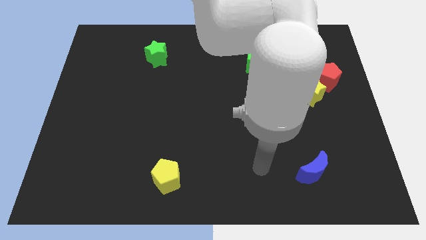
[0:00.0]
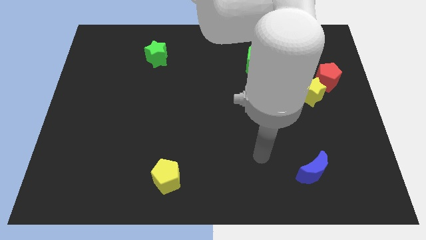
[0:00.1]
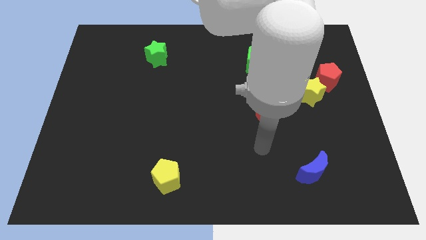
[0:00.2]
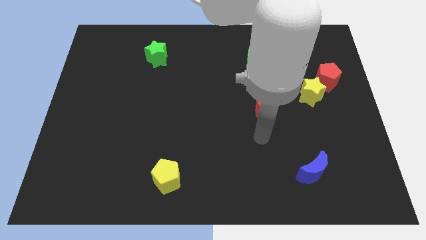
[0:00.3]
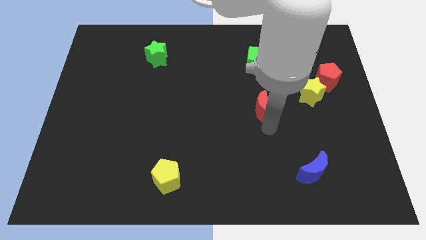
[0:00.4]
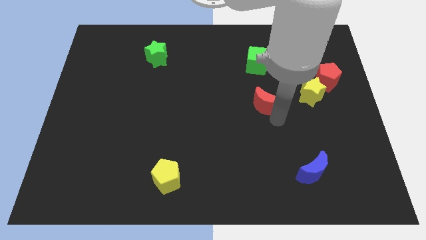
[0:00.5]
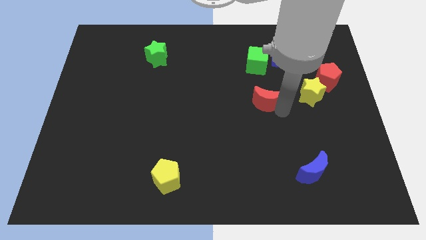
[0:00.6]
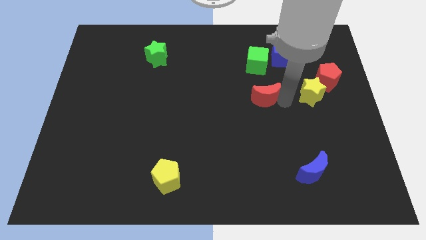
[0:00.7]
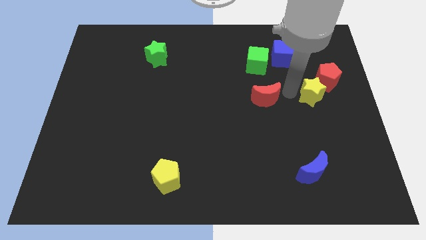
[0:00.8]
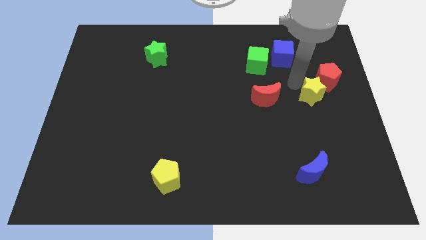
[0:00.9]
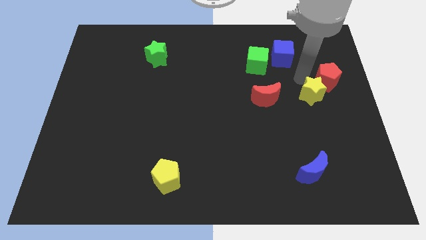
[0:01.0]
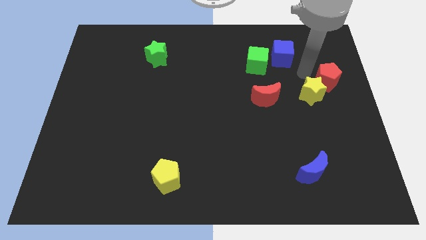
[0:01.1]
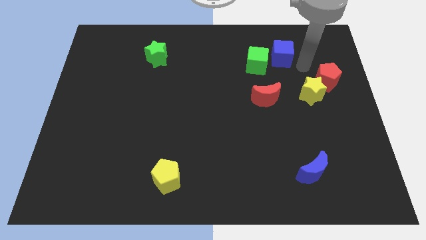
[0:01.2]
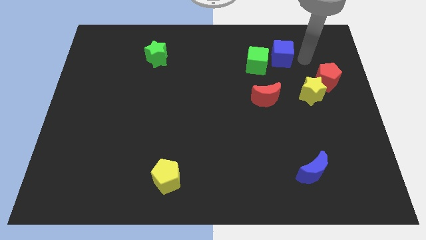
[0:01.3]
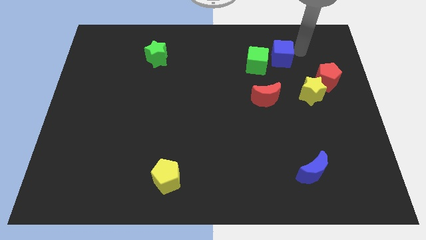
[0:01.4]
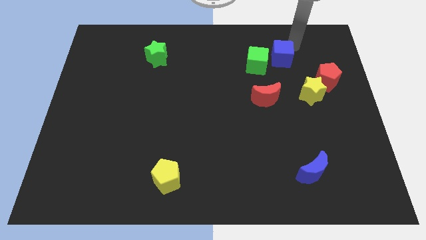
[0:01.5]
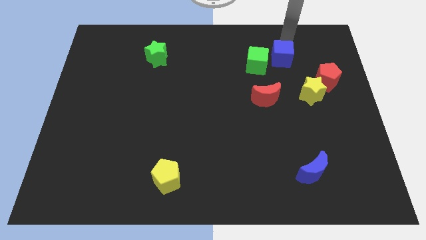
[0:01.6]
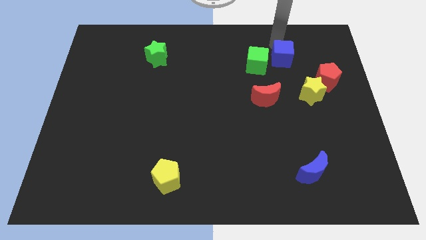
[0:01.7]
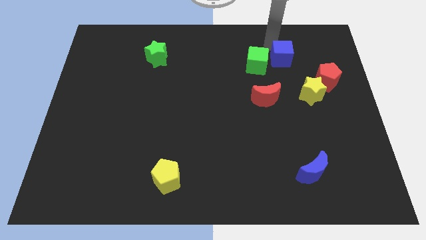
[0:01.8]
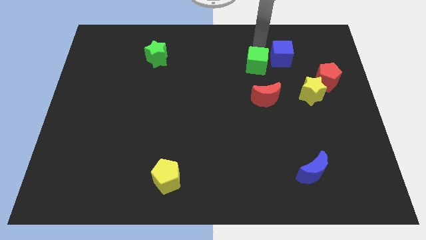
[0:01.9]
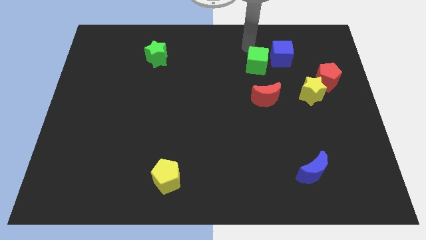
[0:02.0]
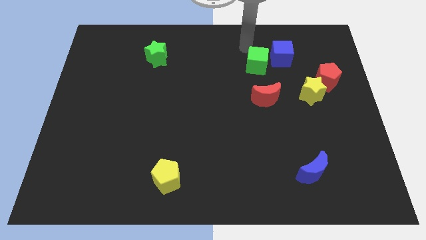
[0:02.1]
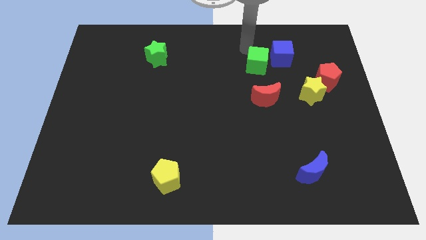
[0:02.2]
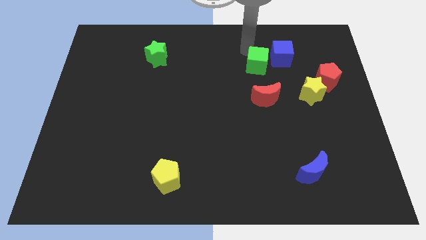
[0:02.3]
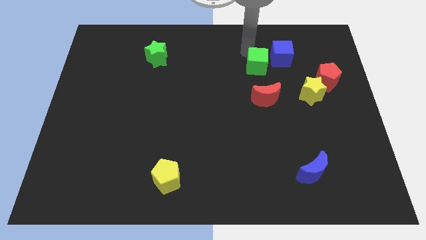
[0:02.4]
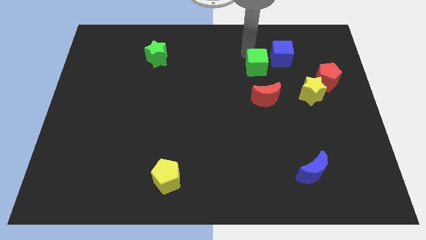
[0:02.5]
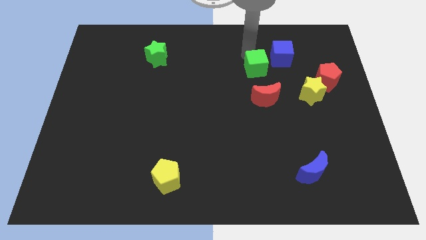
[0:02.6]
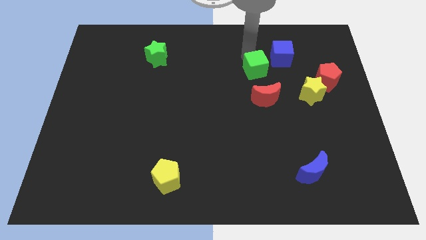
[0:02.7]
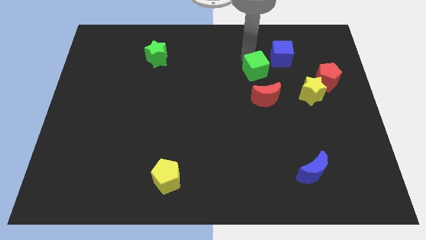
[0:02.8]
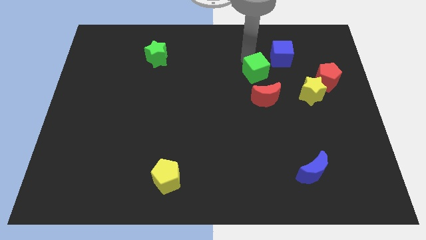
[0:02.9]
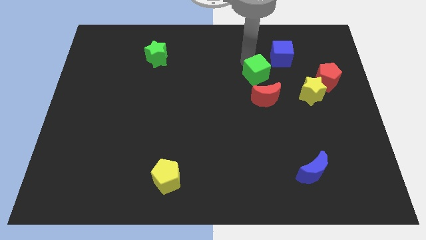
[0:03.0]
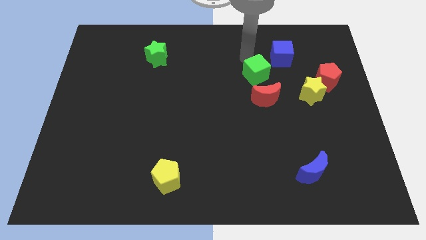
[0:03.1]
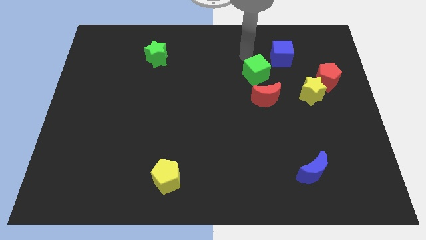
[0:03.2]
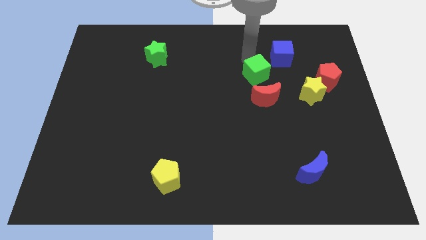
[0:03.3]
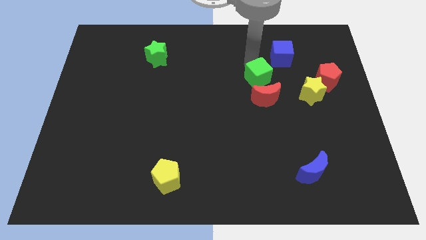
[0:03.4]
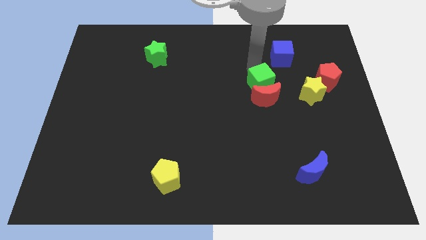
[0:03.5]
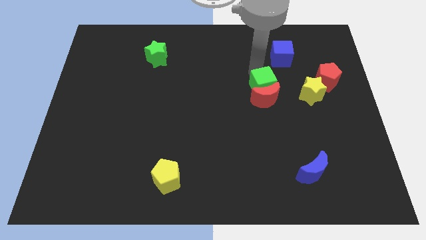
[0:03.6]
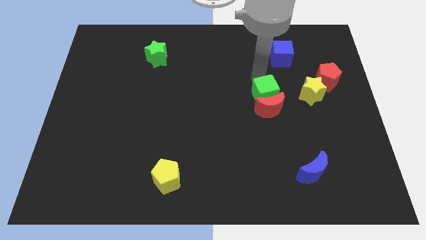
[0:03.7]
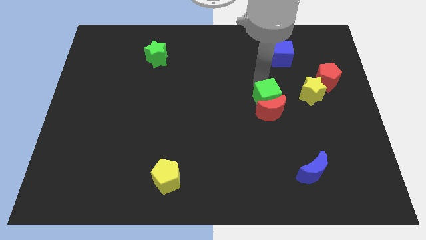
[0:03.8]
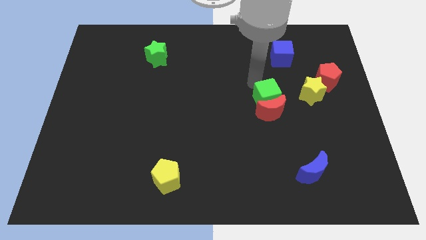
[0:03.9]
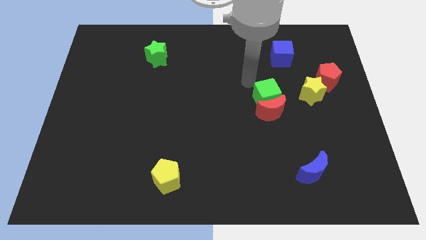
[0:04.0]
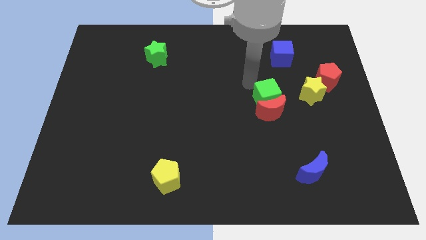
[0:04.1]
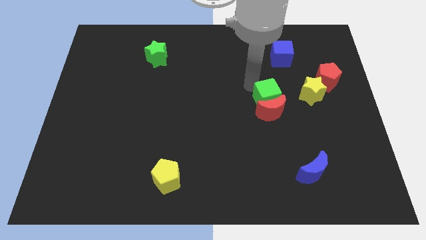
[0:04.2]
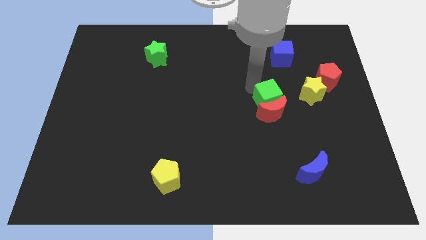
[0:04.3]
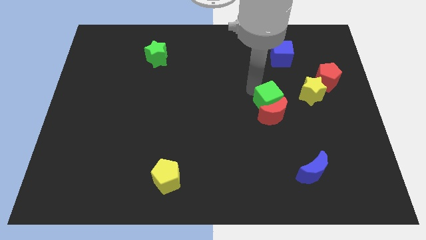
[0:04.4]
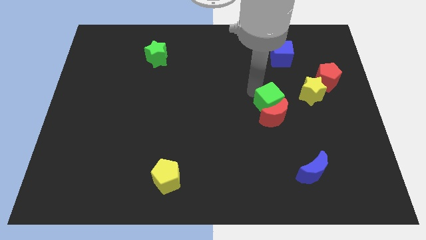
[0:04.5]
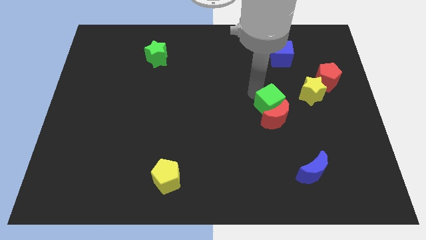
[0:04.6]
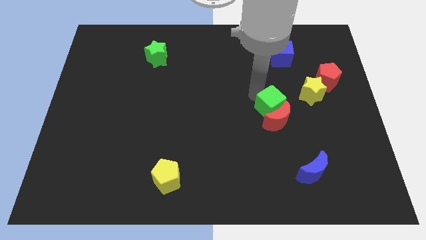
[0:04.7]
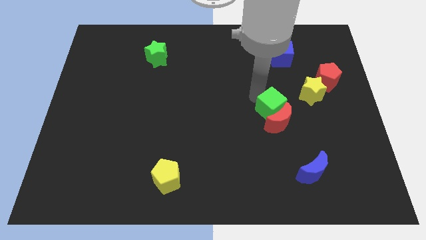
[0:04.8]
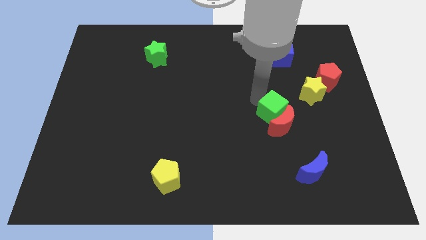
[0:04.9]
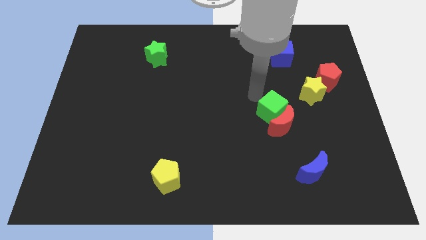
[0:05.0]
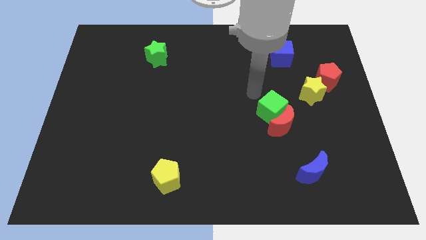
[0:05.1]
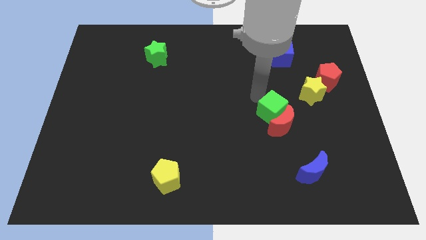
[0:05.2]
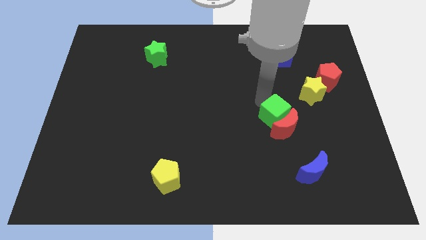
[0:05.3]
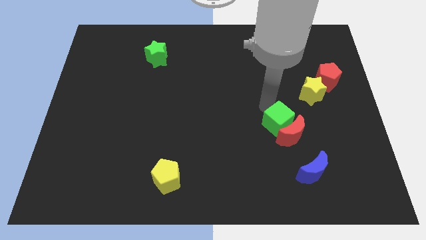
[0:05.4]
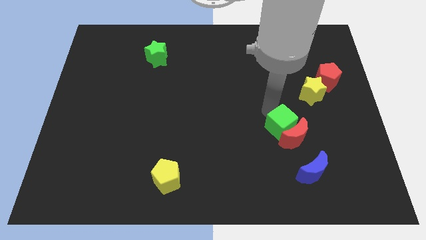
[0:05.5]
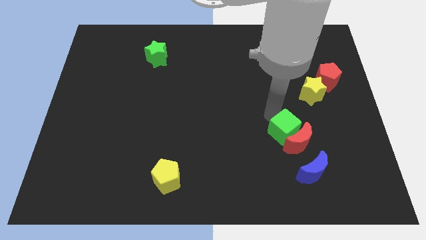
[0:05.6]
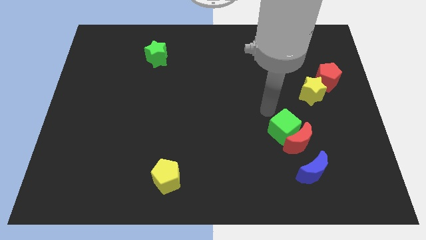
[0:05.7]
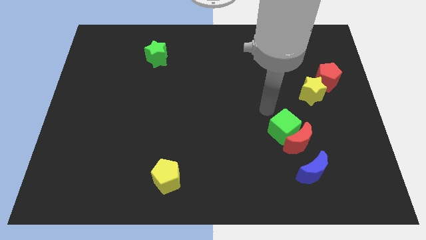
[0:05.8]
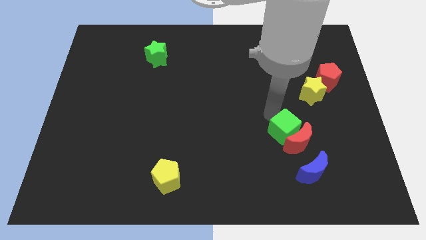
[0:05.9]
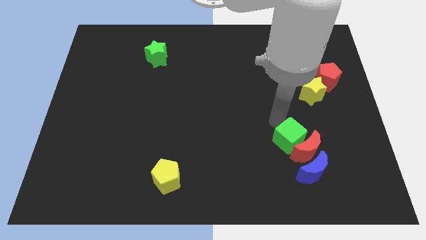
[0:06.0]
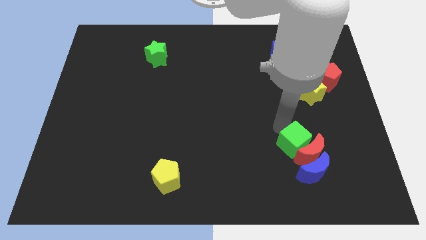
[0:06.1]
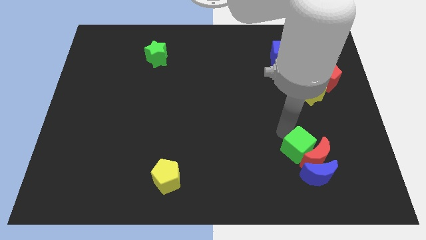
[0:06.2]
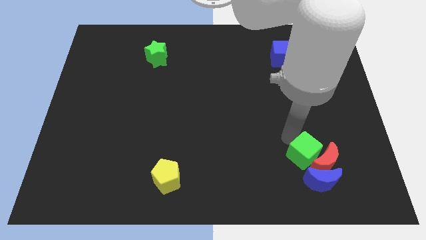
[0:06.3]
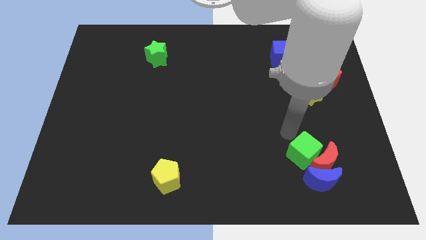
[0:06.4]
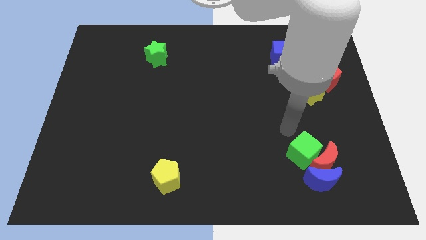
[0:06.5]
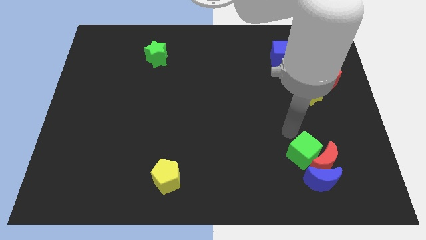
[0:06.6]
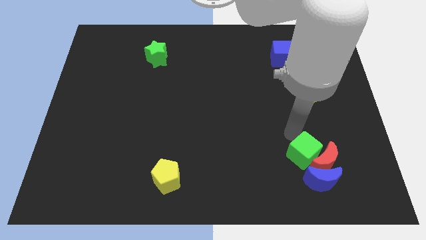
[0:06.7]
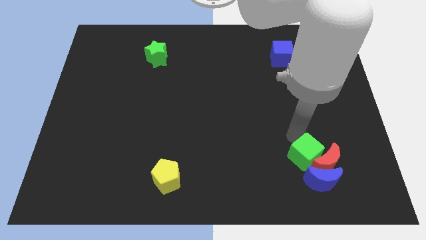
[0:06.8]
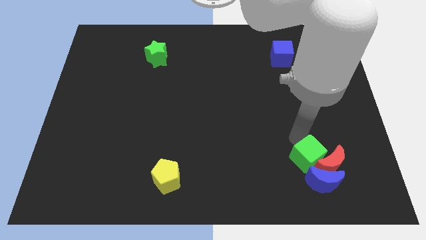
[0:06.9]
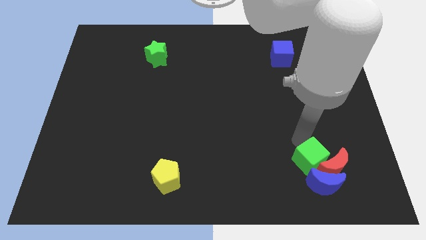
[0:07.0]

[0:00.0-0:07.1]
push the green cube towards the blue moon

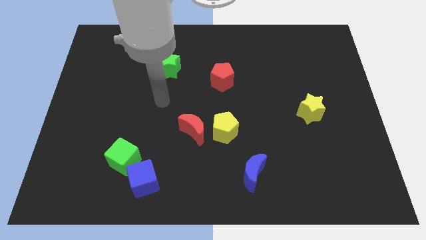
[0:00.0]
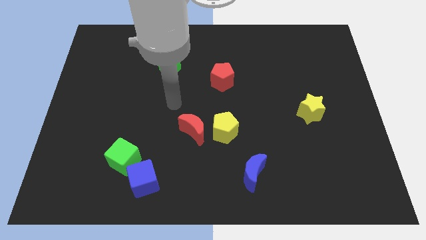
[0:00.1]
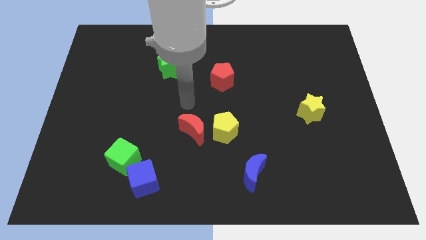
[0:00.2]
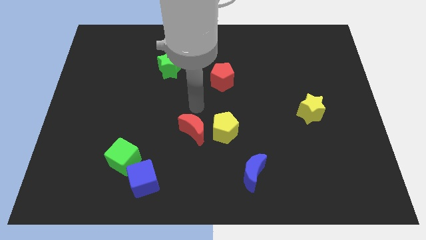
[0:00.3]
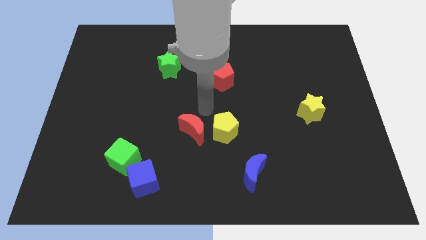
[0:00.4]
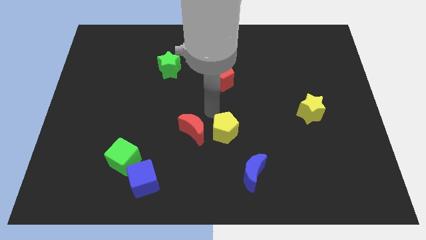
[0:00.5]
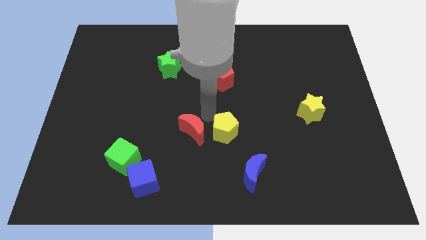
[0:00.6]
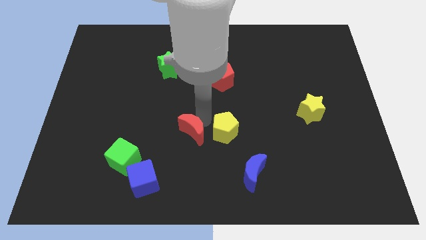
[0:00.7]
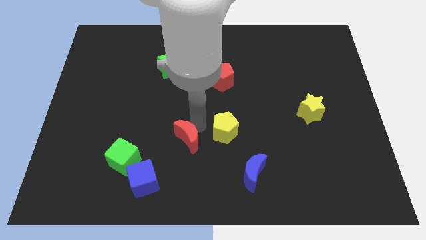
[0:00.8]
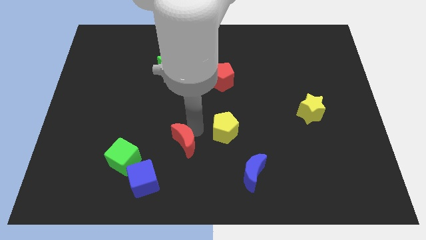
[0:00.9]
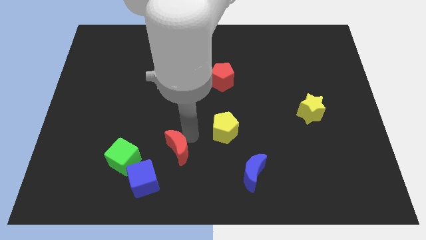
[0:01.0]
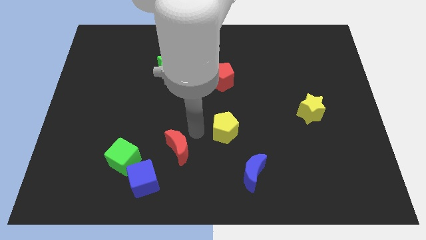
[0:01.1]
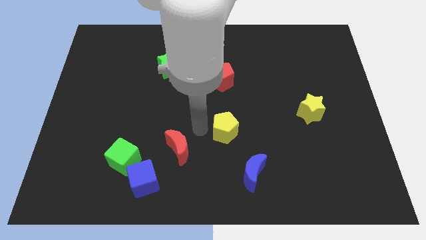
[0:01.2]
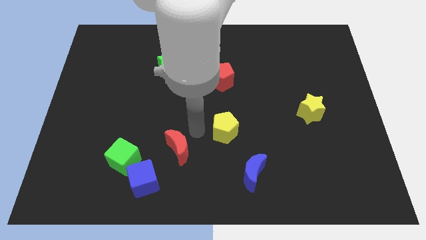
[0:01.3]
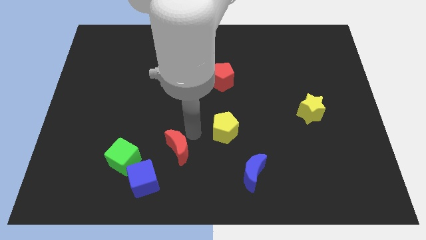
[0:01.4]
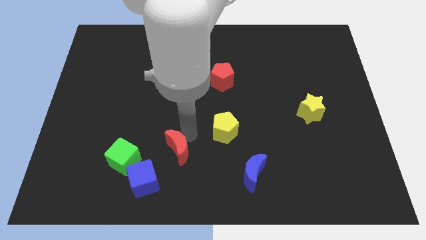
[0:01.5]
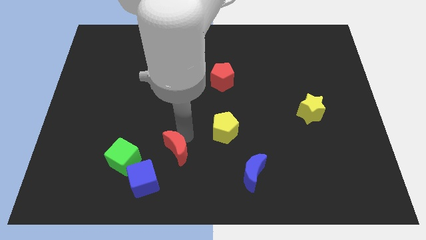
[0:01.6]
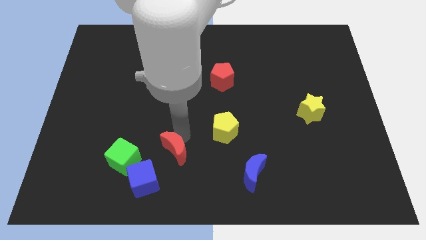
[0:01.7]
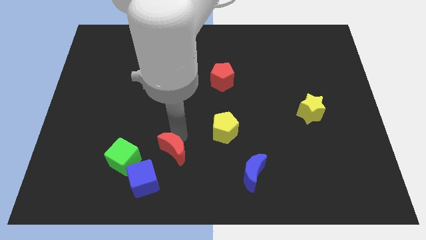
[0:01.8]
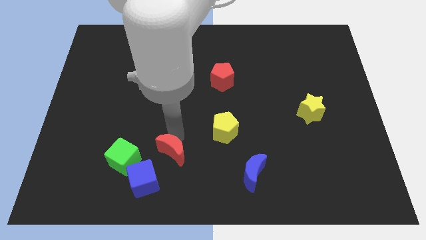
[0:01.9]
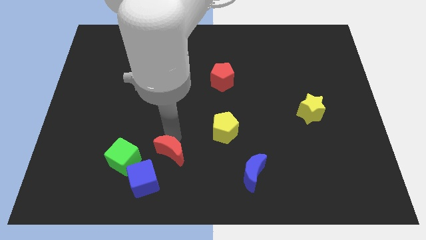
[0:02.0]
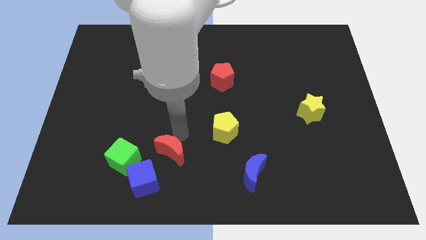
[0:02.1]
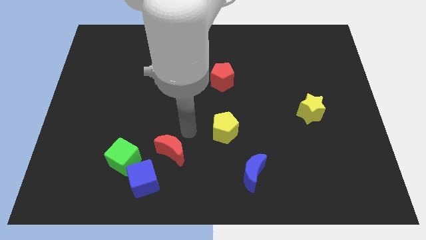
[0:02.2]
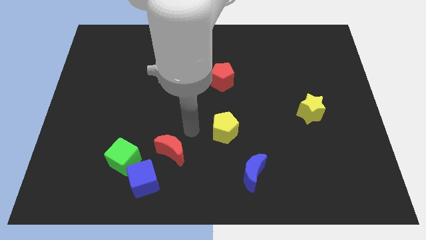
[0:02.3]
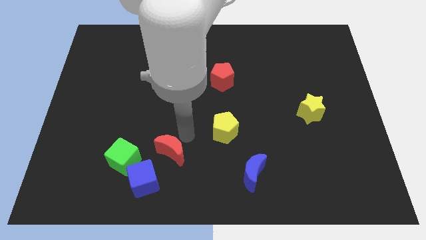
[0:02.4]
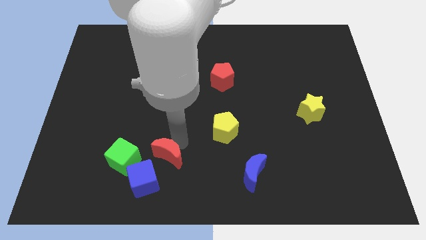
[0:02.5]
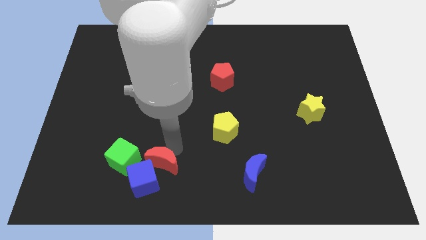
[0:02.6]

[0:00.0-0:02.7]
put the red moon towards the blue cube
